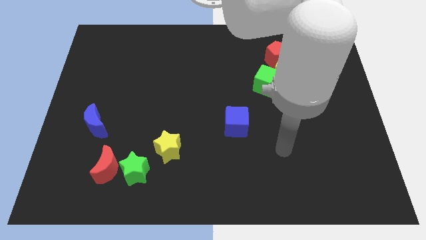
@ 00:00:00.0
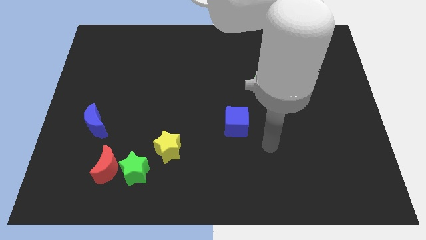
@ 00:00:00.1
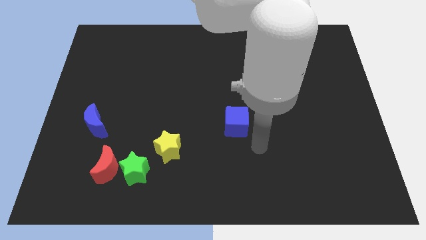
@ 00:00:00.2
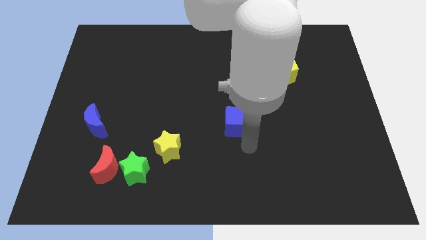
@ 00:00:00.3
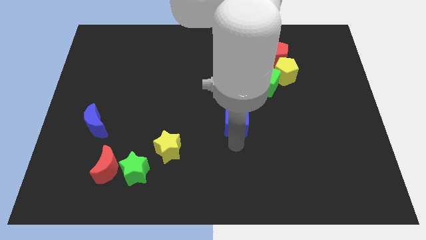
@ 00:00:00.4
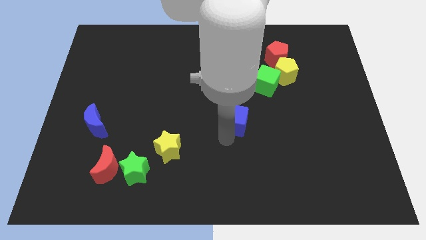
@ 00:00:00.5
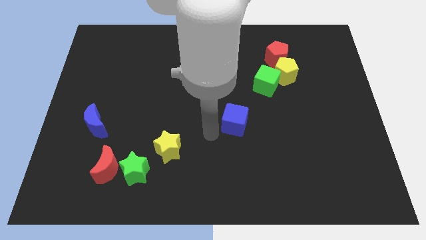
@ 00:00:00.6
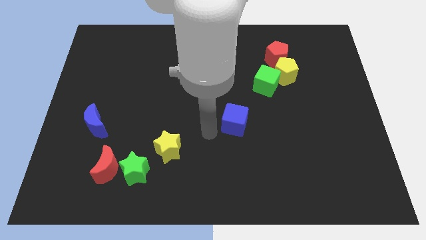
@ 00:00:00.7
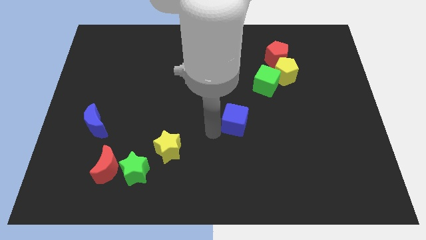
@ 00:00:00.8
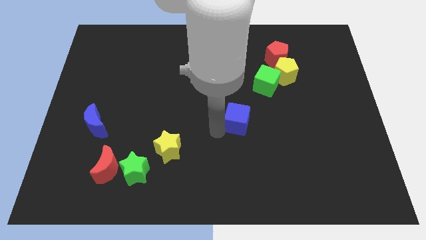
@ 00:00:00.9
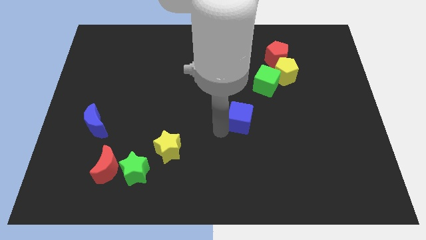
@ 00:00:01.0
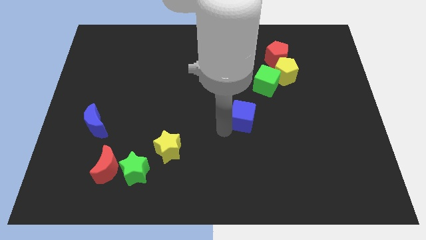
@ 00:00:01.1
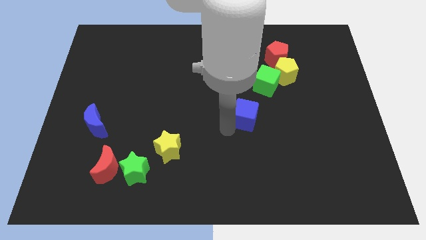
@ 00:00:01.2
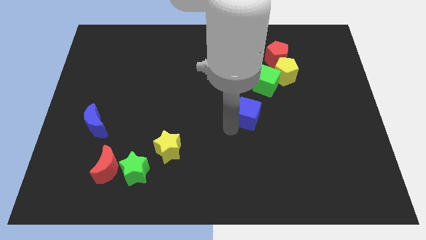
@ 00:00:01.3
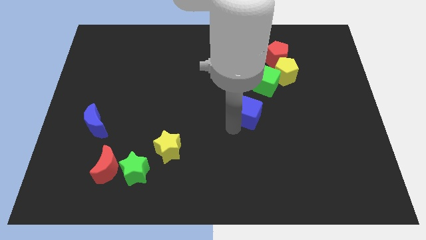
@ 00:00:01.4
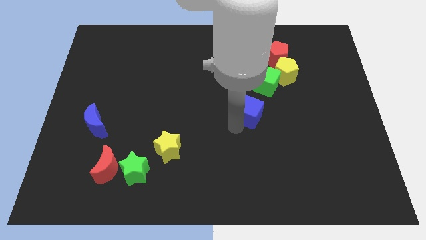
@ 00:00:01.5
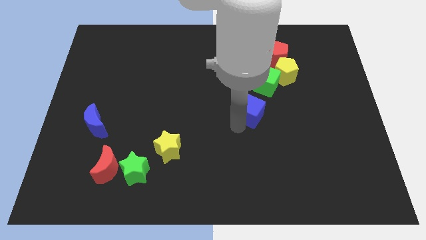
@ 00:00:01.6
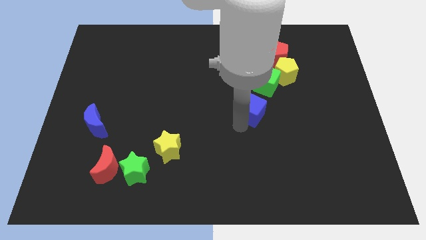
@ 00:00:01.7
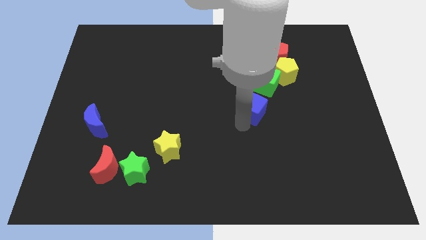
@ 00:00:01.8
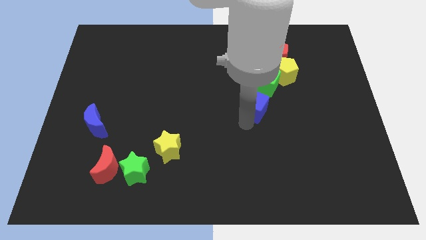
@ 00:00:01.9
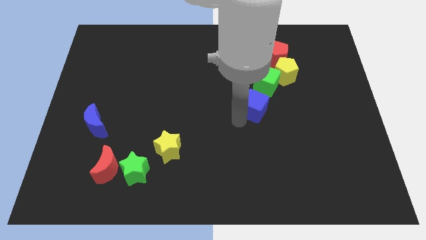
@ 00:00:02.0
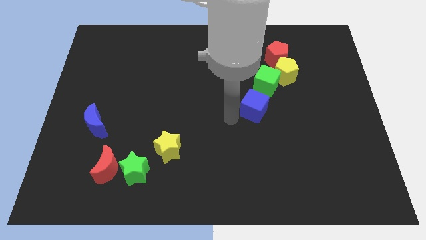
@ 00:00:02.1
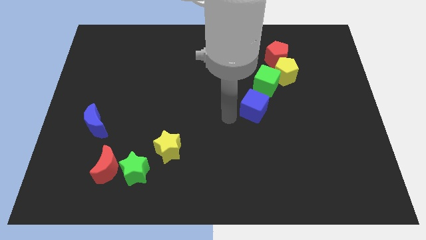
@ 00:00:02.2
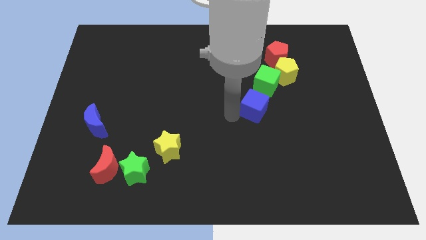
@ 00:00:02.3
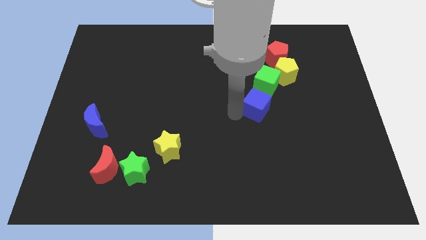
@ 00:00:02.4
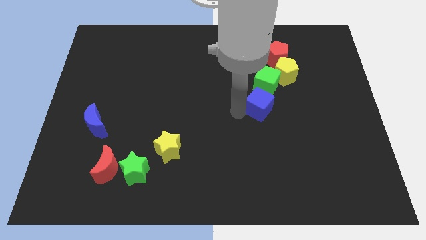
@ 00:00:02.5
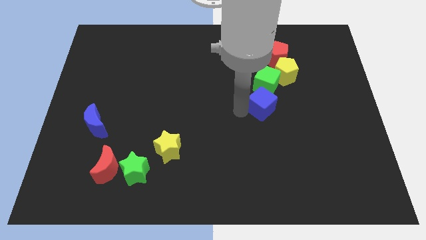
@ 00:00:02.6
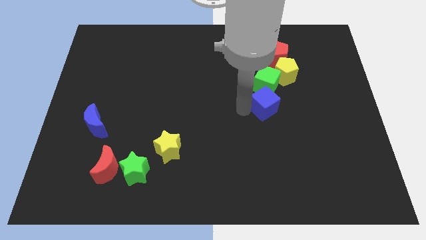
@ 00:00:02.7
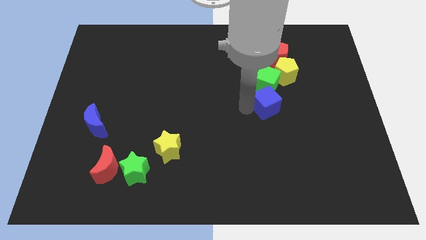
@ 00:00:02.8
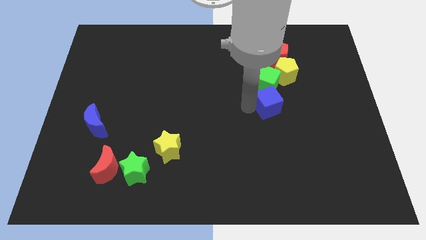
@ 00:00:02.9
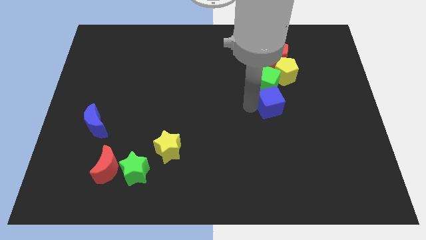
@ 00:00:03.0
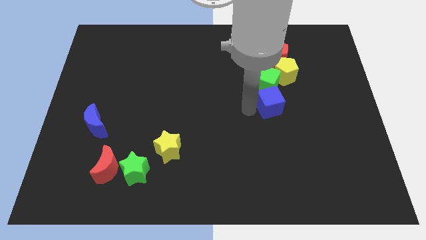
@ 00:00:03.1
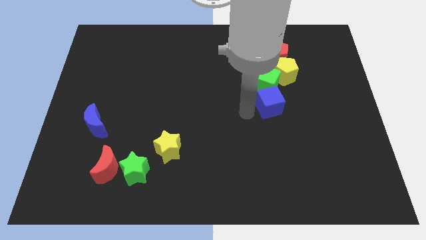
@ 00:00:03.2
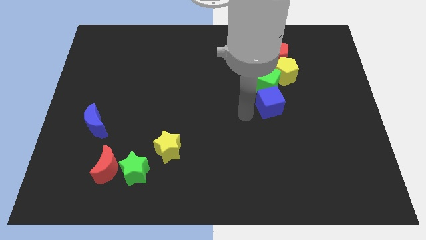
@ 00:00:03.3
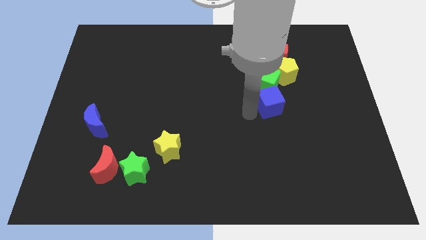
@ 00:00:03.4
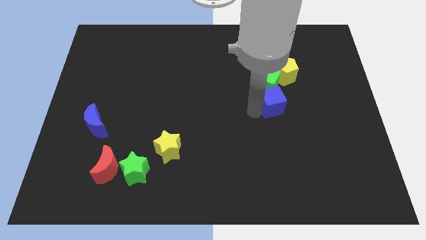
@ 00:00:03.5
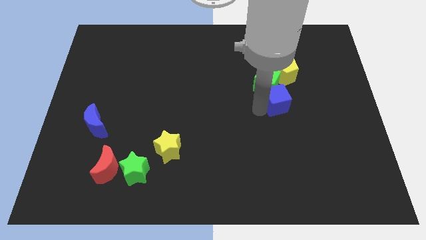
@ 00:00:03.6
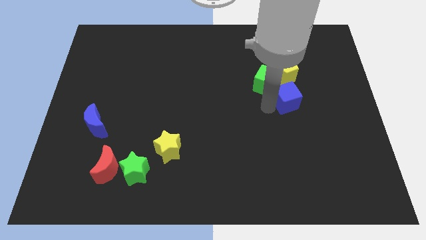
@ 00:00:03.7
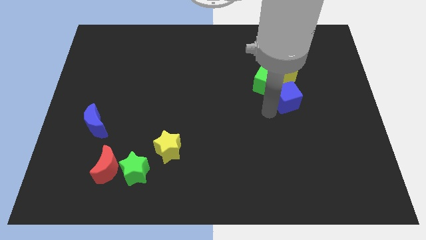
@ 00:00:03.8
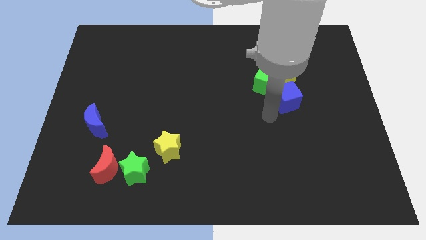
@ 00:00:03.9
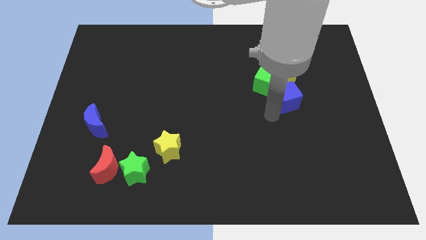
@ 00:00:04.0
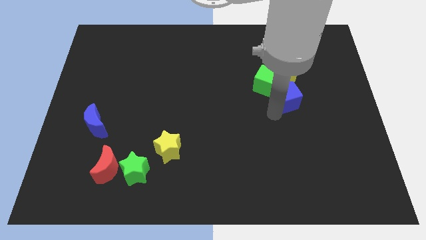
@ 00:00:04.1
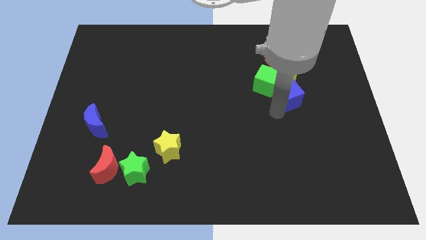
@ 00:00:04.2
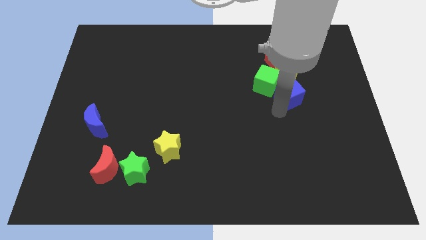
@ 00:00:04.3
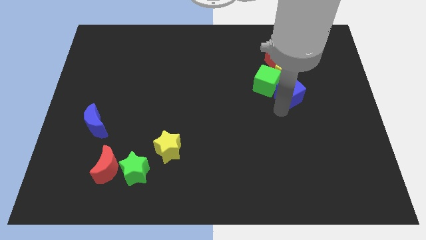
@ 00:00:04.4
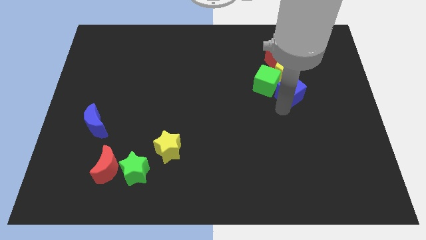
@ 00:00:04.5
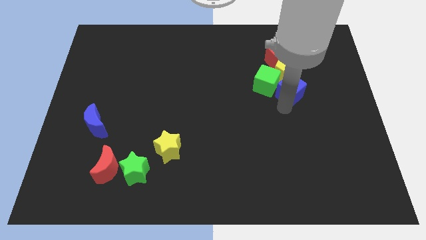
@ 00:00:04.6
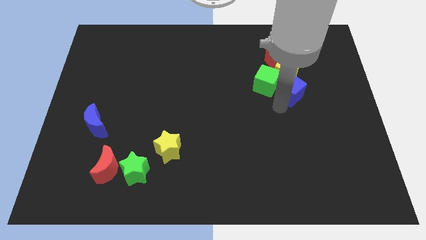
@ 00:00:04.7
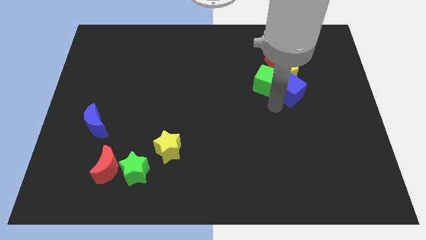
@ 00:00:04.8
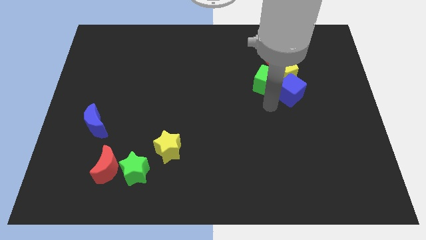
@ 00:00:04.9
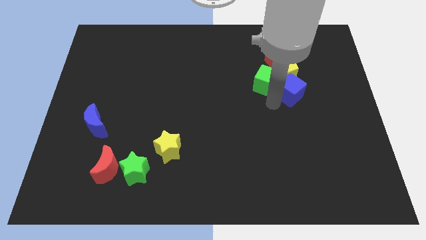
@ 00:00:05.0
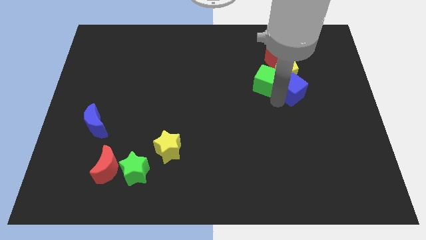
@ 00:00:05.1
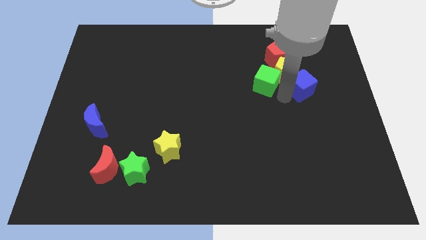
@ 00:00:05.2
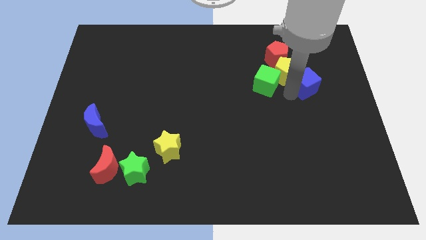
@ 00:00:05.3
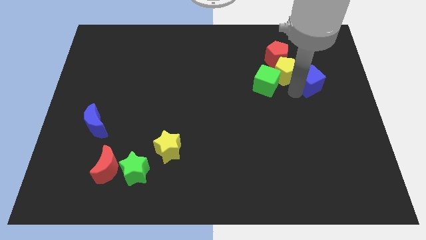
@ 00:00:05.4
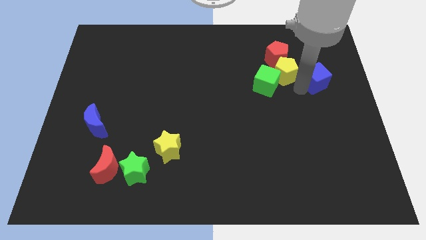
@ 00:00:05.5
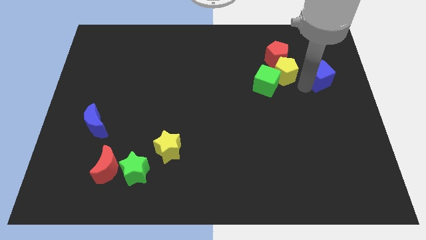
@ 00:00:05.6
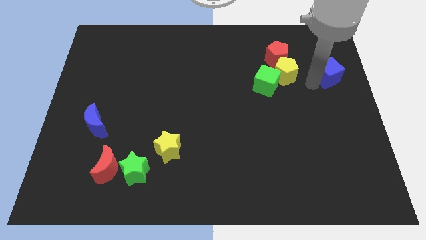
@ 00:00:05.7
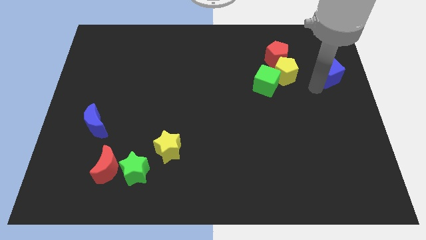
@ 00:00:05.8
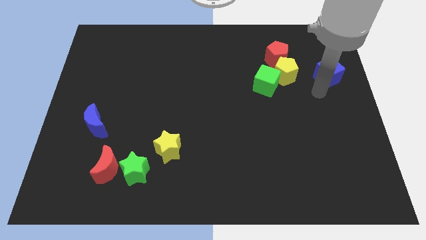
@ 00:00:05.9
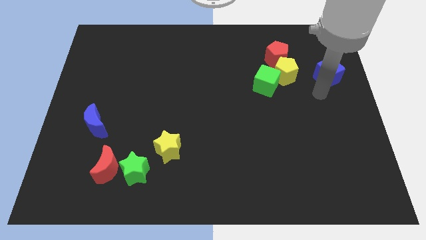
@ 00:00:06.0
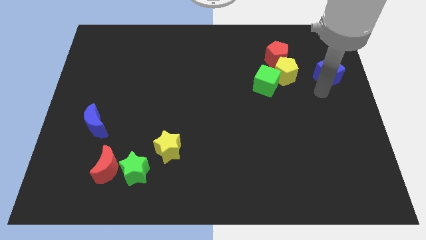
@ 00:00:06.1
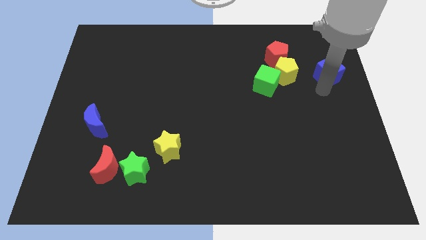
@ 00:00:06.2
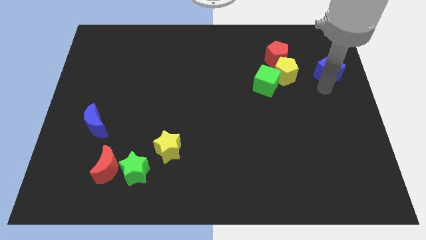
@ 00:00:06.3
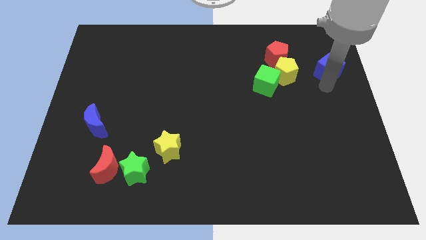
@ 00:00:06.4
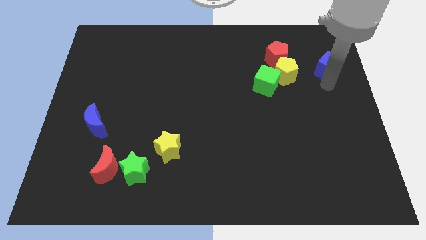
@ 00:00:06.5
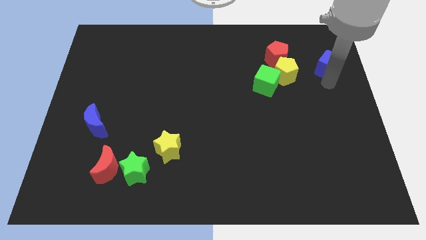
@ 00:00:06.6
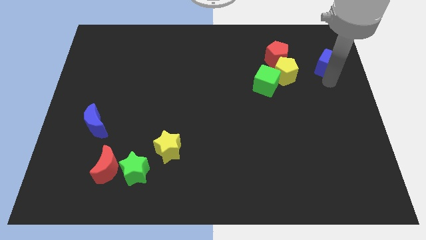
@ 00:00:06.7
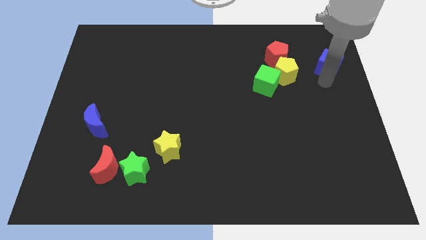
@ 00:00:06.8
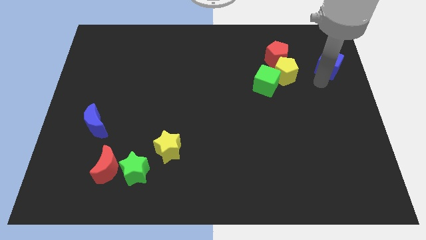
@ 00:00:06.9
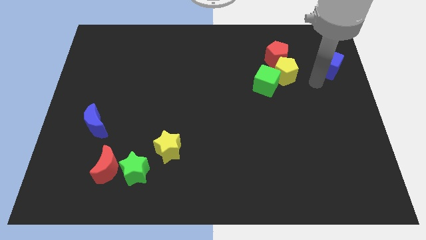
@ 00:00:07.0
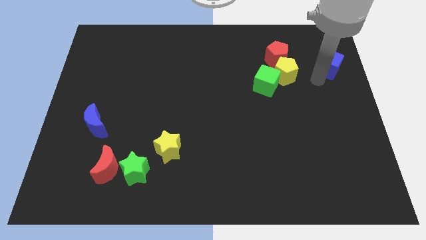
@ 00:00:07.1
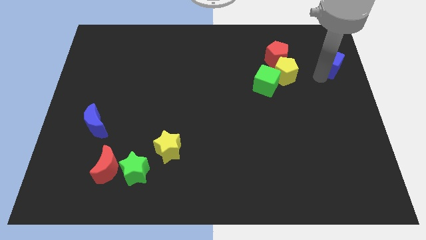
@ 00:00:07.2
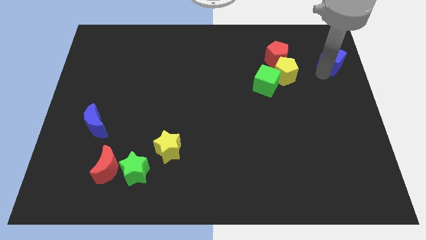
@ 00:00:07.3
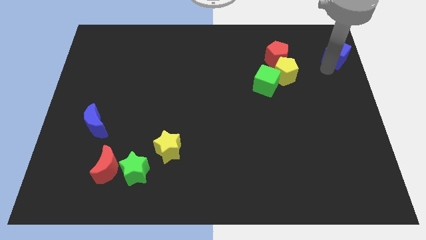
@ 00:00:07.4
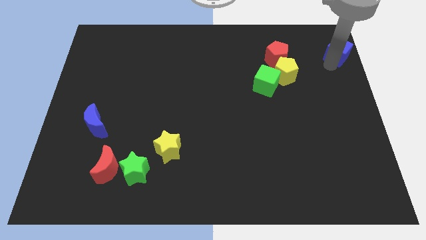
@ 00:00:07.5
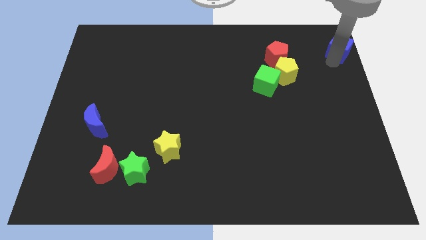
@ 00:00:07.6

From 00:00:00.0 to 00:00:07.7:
put the blue cube to the top right corner
